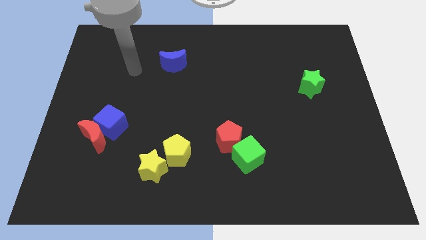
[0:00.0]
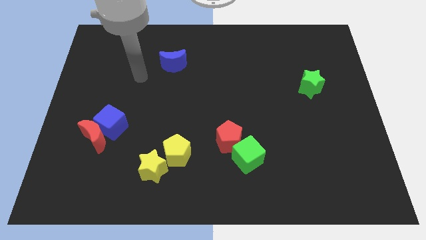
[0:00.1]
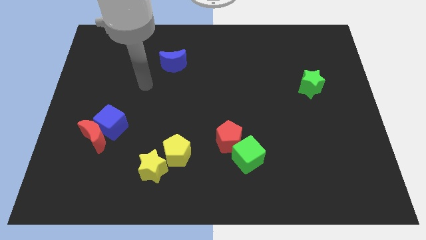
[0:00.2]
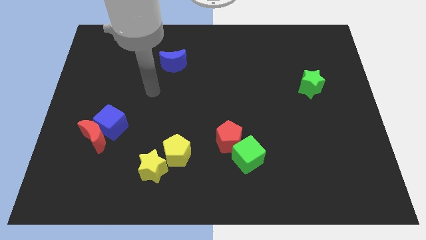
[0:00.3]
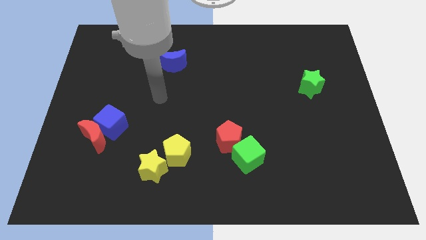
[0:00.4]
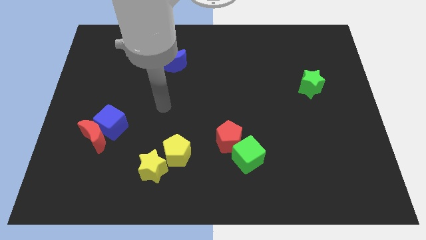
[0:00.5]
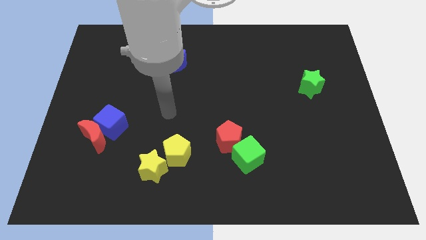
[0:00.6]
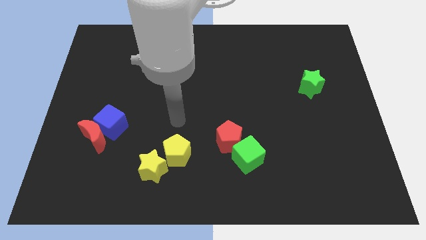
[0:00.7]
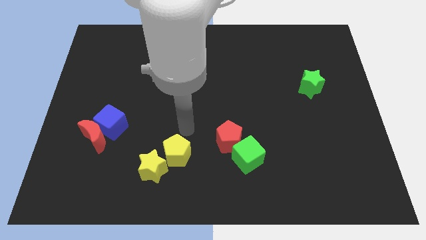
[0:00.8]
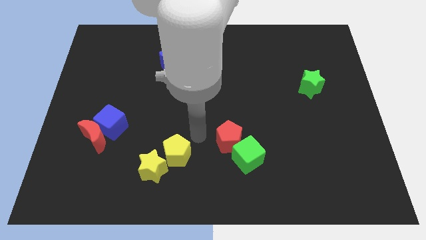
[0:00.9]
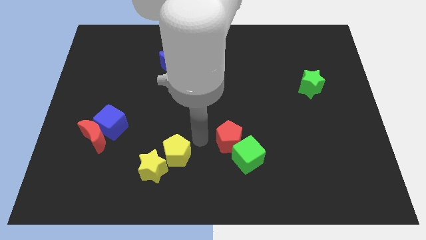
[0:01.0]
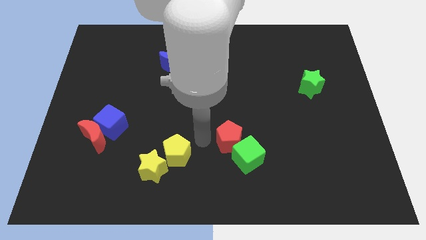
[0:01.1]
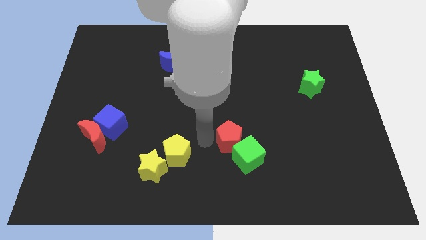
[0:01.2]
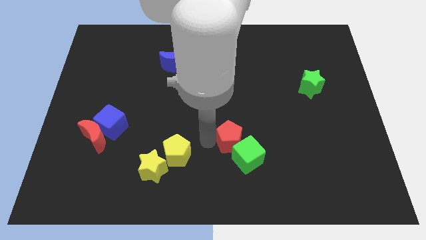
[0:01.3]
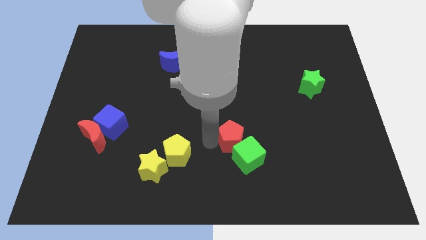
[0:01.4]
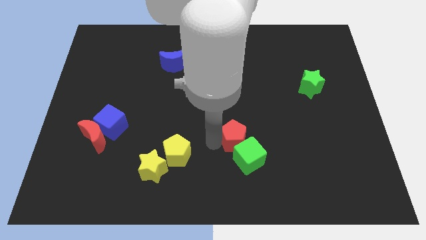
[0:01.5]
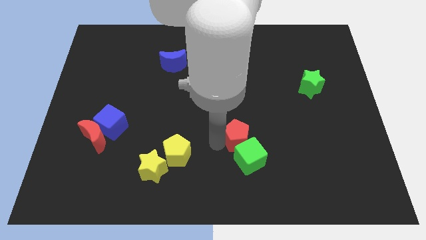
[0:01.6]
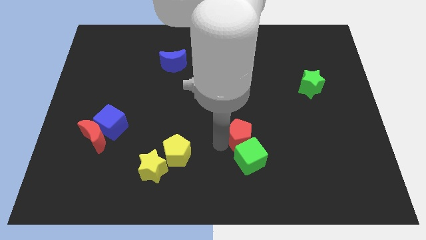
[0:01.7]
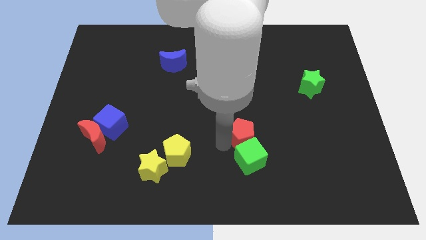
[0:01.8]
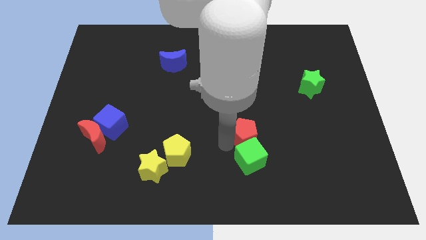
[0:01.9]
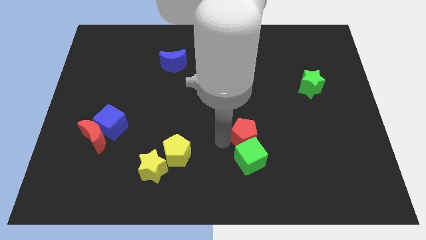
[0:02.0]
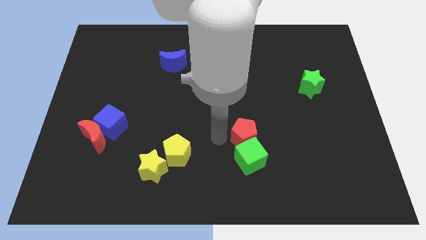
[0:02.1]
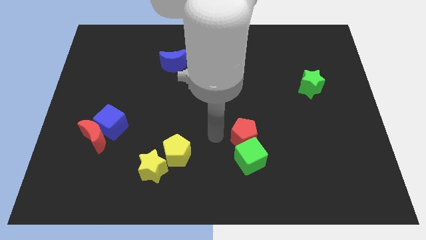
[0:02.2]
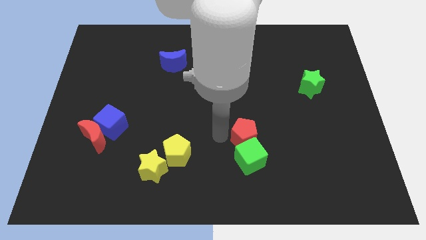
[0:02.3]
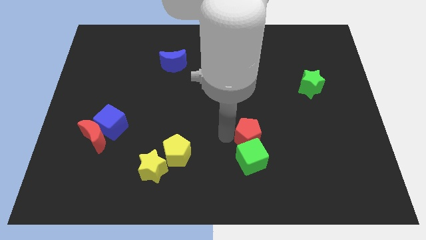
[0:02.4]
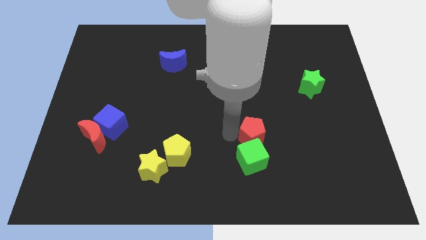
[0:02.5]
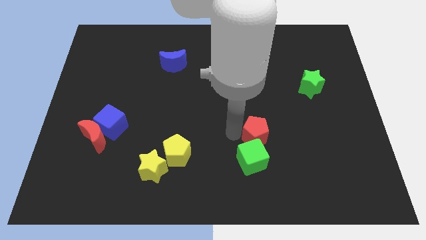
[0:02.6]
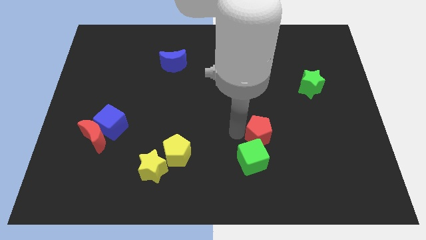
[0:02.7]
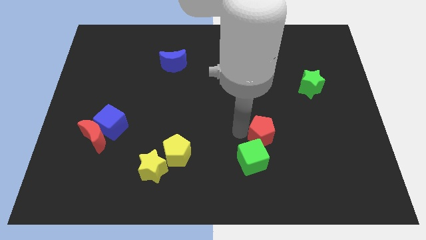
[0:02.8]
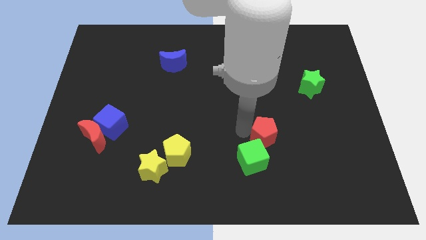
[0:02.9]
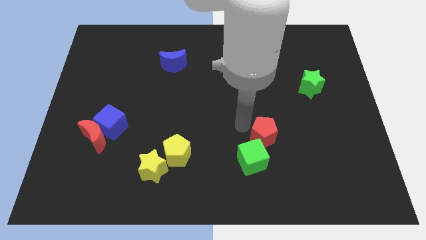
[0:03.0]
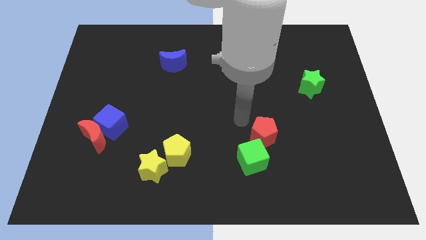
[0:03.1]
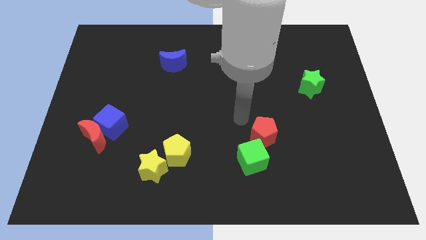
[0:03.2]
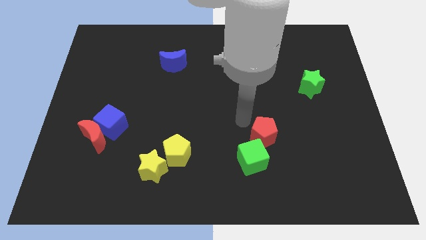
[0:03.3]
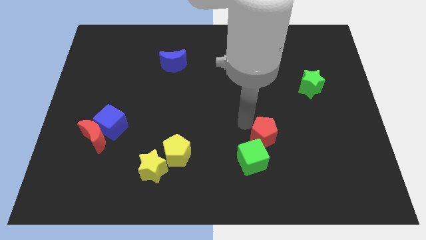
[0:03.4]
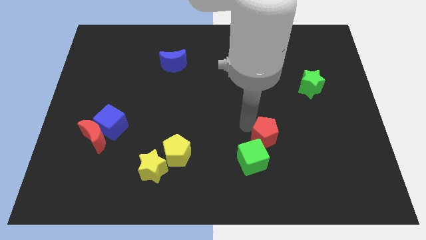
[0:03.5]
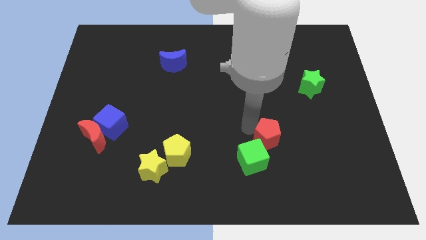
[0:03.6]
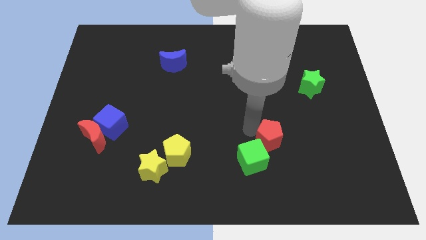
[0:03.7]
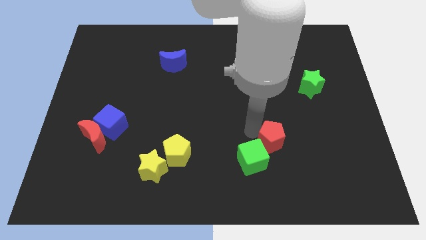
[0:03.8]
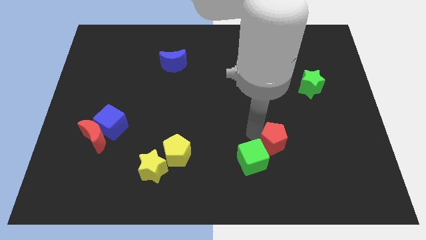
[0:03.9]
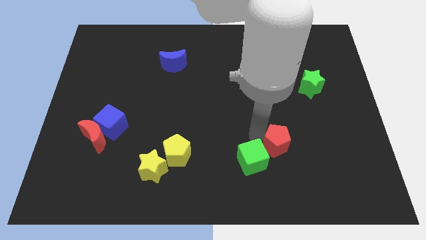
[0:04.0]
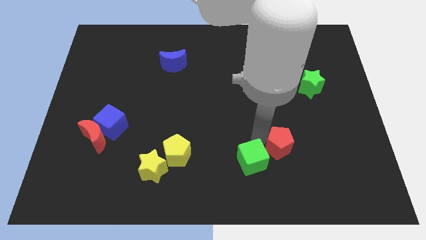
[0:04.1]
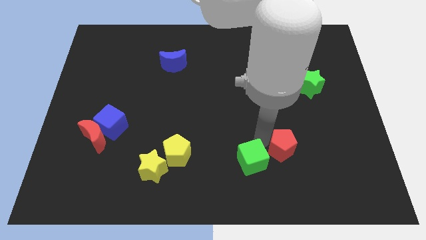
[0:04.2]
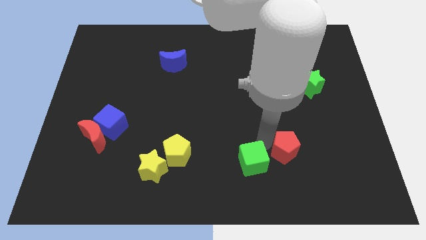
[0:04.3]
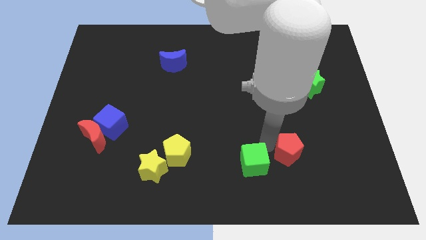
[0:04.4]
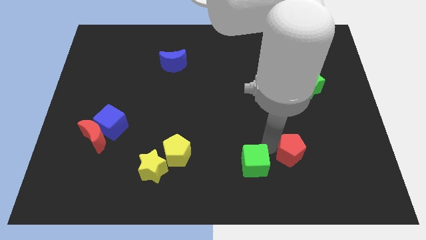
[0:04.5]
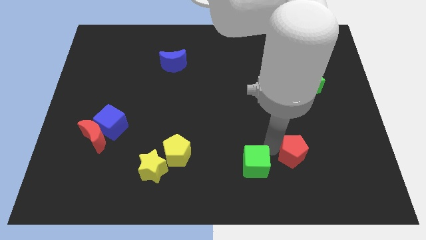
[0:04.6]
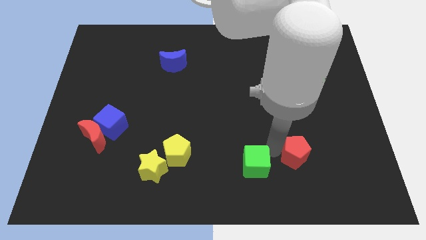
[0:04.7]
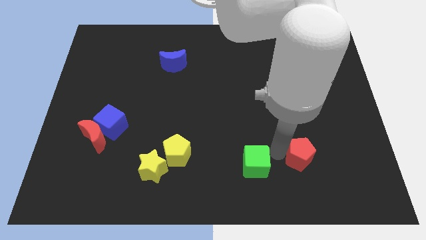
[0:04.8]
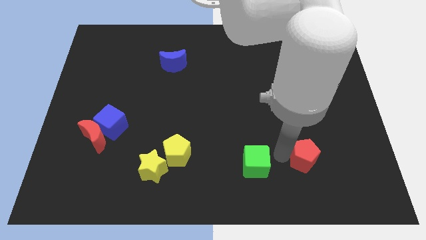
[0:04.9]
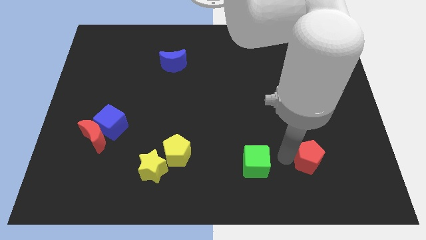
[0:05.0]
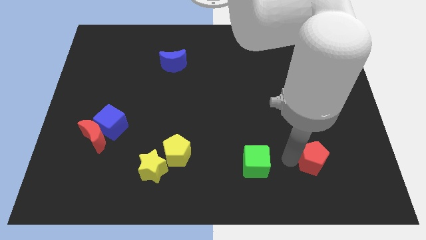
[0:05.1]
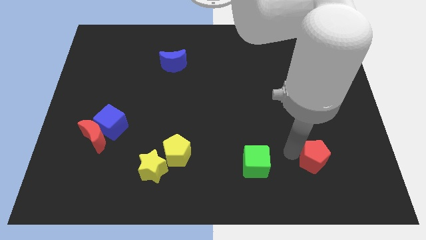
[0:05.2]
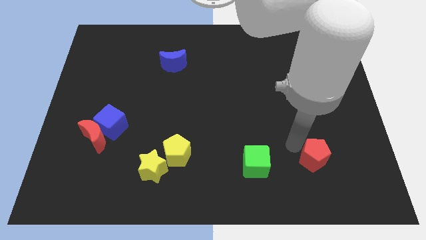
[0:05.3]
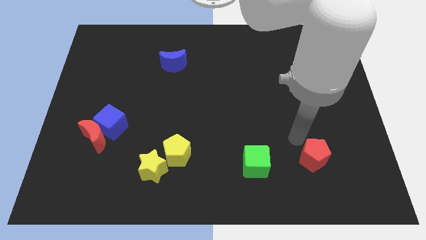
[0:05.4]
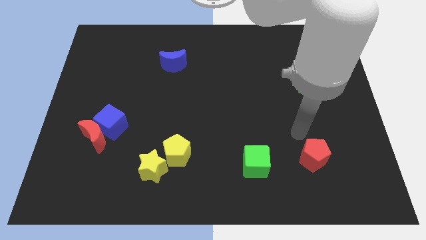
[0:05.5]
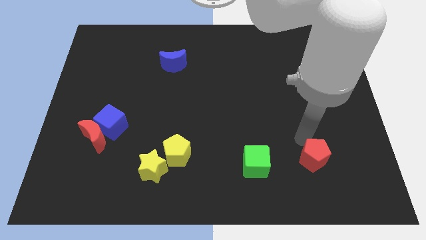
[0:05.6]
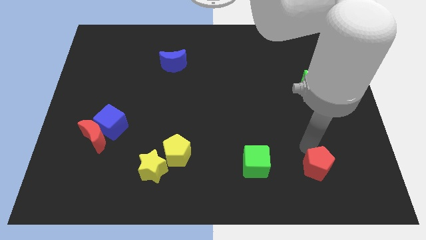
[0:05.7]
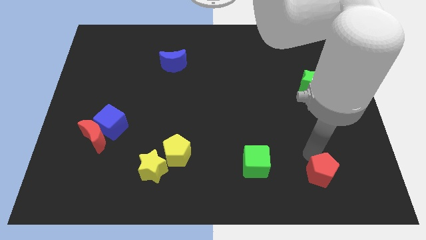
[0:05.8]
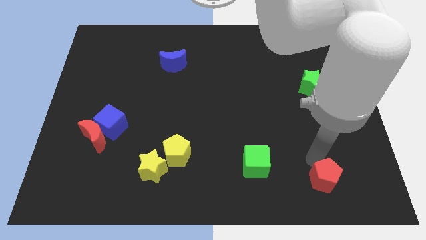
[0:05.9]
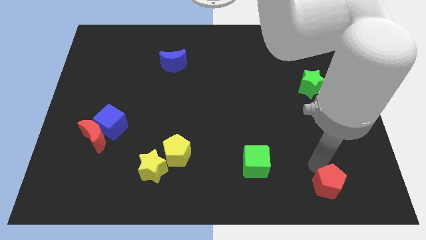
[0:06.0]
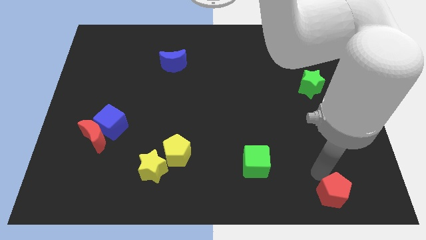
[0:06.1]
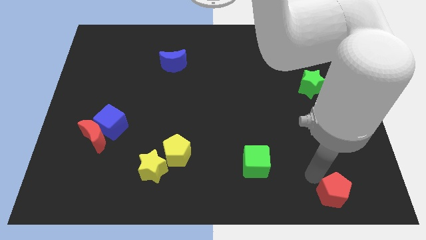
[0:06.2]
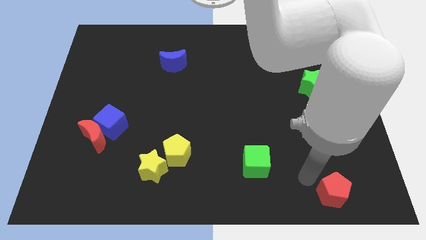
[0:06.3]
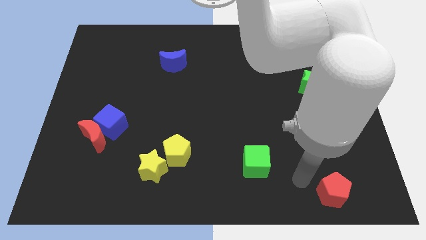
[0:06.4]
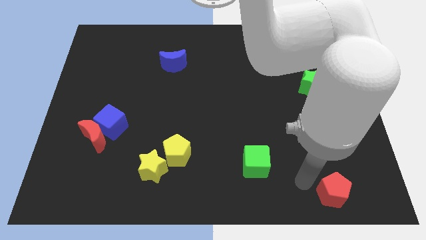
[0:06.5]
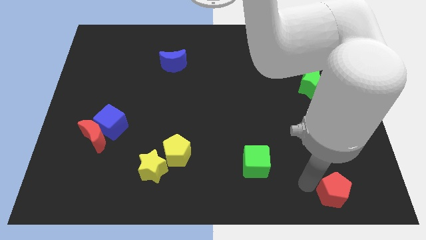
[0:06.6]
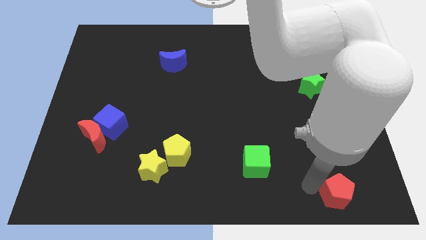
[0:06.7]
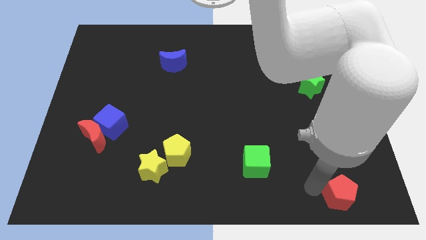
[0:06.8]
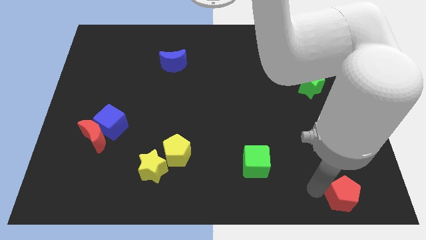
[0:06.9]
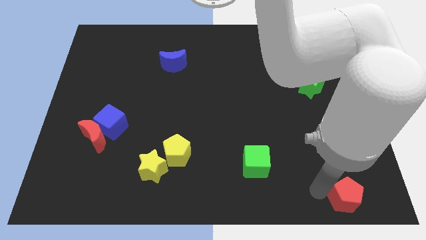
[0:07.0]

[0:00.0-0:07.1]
slide the red pentagon to the lower right corner
